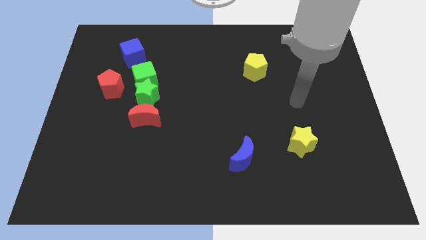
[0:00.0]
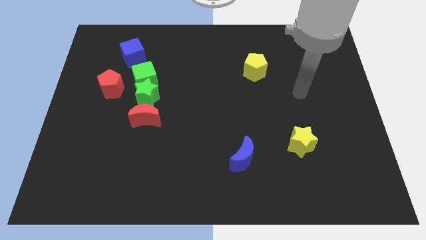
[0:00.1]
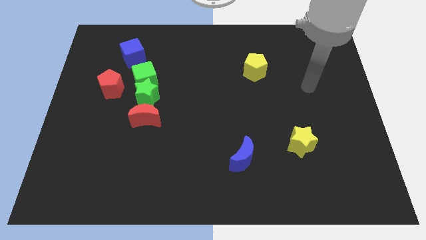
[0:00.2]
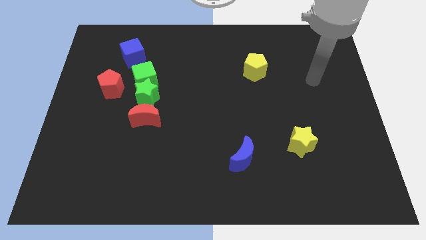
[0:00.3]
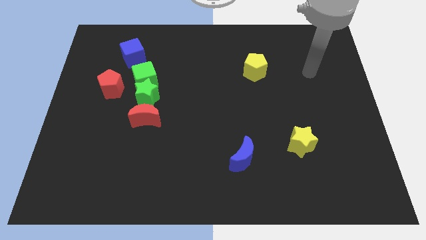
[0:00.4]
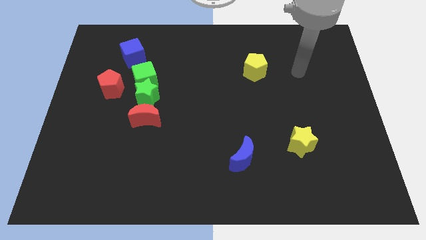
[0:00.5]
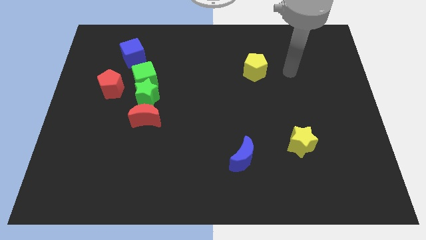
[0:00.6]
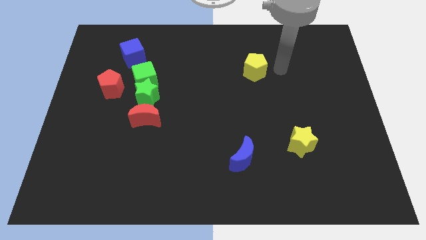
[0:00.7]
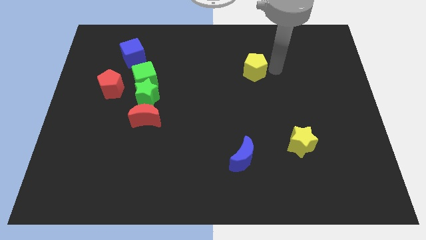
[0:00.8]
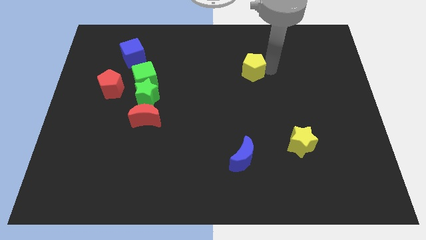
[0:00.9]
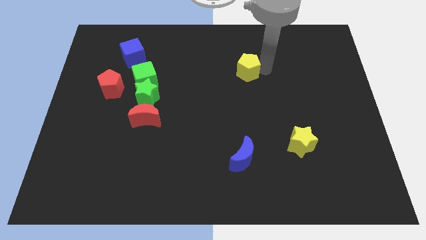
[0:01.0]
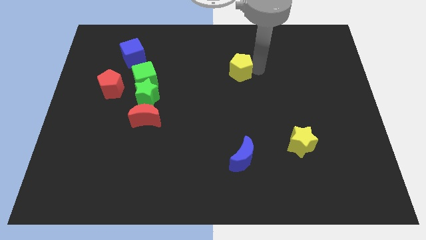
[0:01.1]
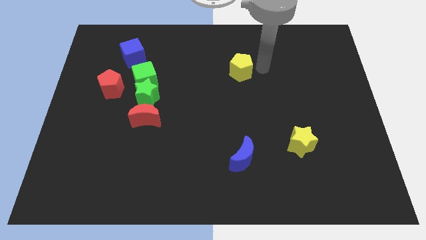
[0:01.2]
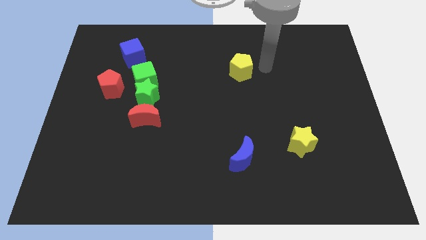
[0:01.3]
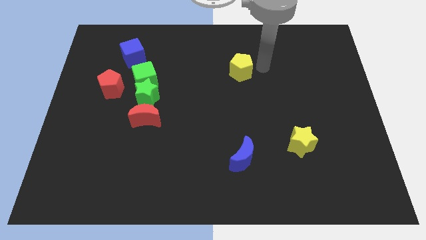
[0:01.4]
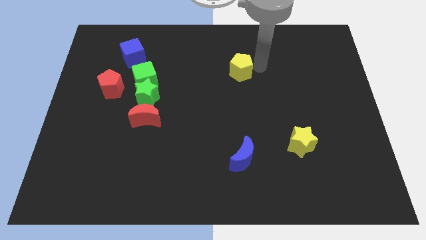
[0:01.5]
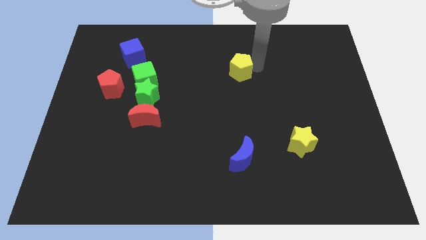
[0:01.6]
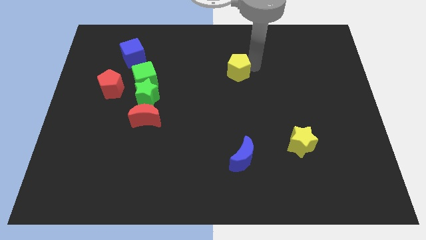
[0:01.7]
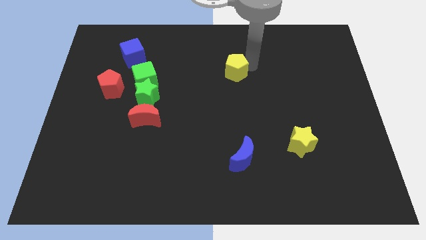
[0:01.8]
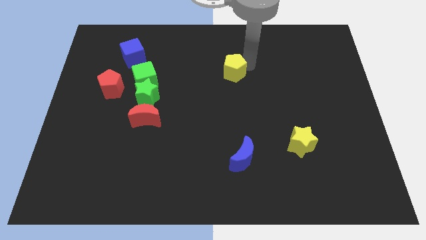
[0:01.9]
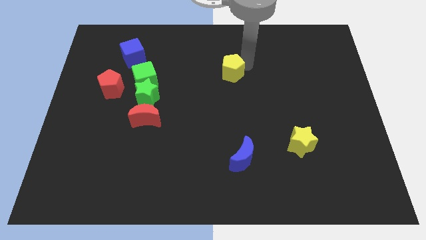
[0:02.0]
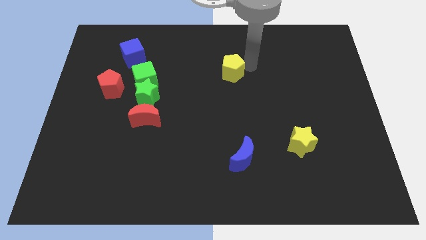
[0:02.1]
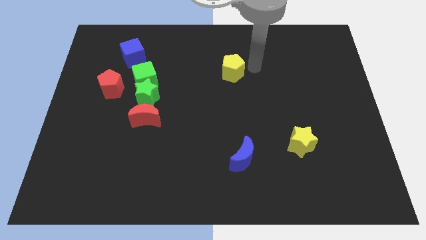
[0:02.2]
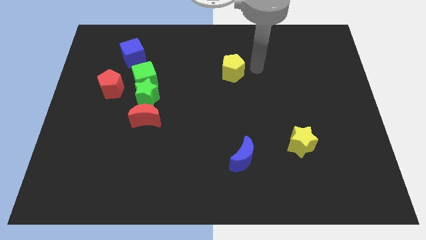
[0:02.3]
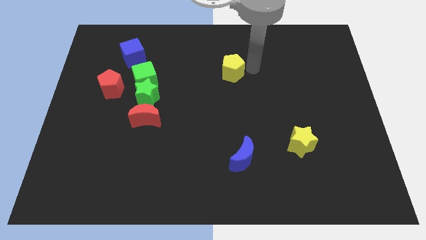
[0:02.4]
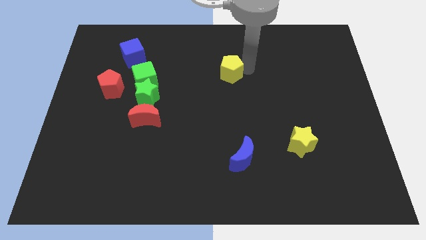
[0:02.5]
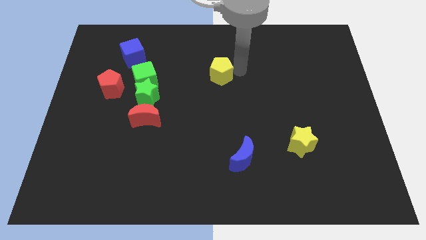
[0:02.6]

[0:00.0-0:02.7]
push the yellow pentagon left slightly

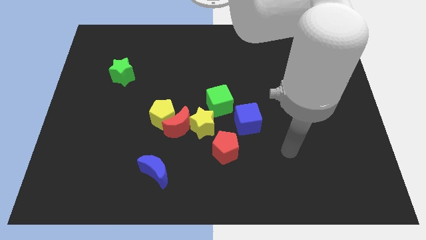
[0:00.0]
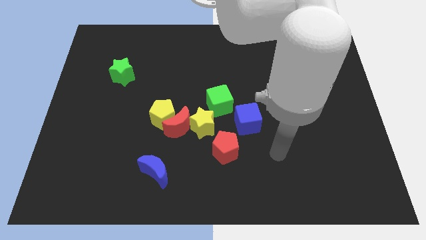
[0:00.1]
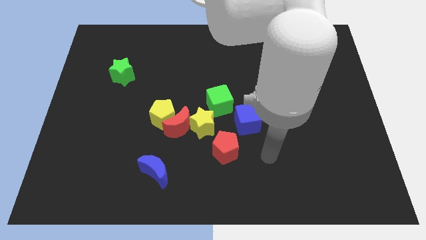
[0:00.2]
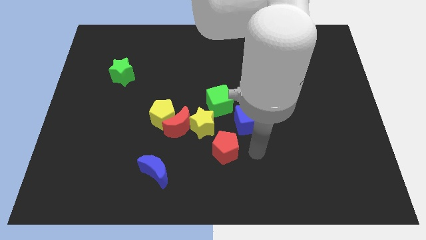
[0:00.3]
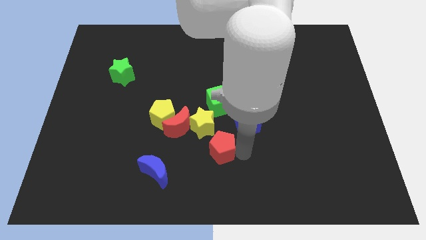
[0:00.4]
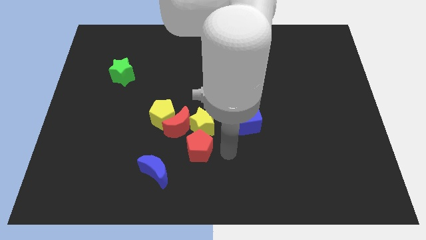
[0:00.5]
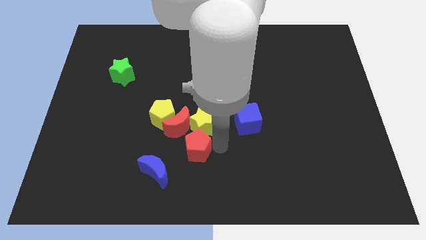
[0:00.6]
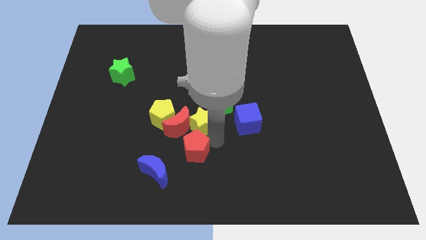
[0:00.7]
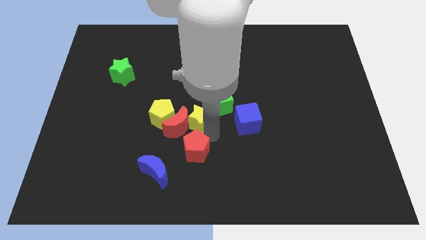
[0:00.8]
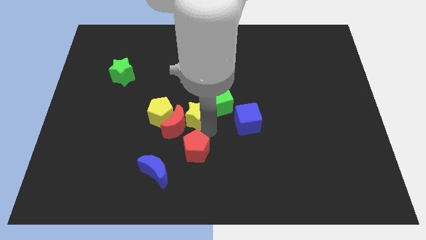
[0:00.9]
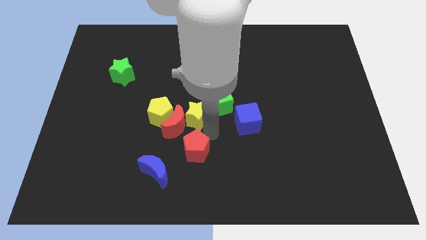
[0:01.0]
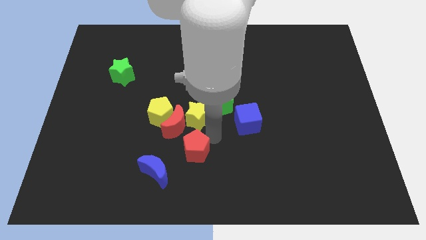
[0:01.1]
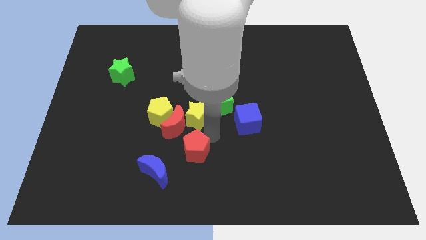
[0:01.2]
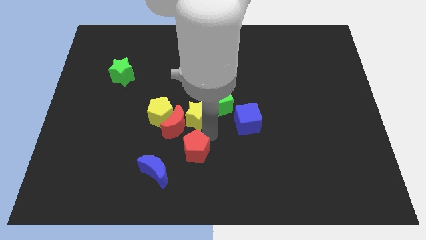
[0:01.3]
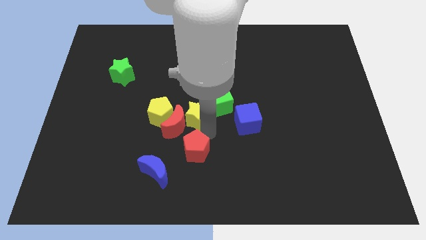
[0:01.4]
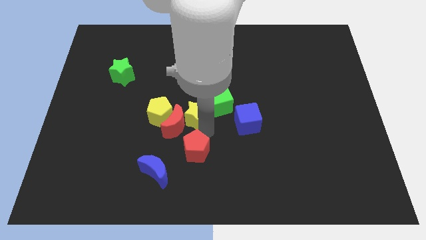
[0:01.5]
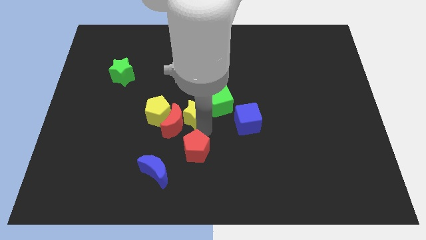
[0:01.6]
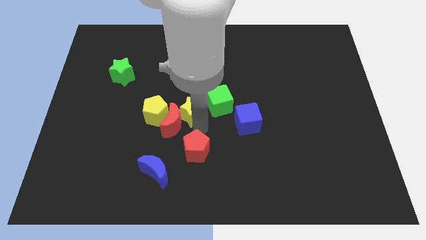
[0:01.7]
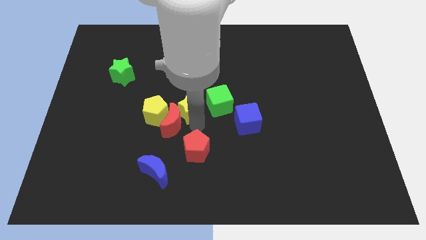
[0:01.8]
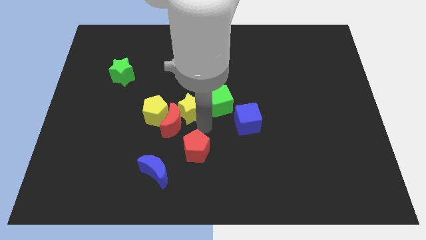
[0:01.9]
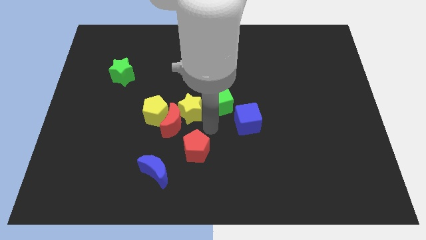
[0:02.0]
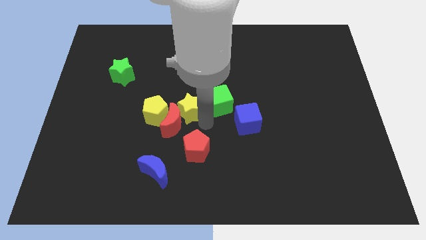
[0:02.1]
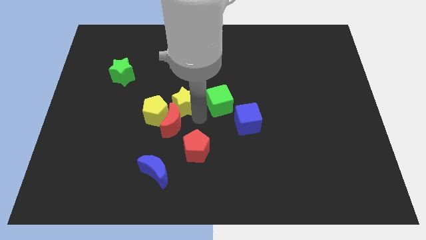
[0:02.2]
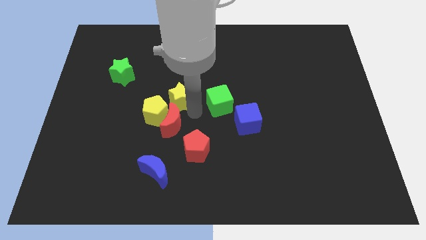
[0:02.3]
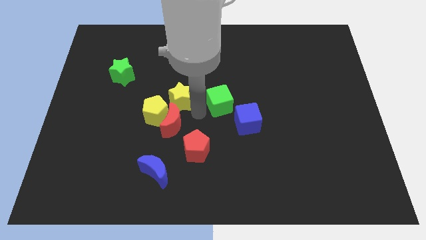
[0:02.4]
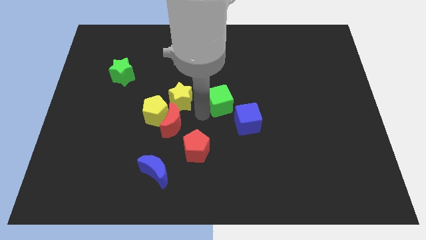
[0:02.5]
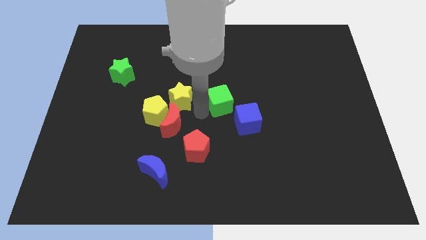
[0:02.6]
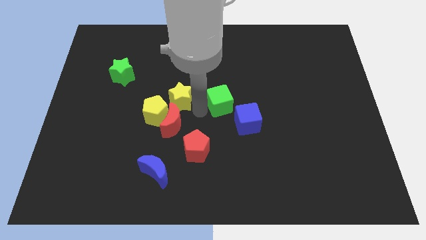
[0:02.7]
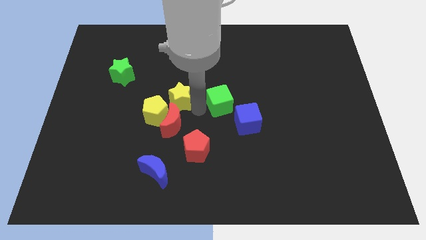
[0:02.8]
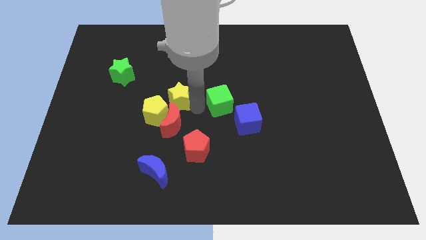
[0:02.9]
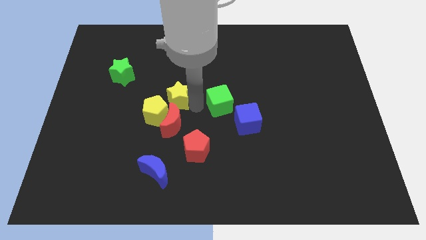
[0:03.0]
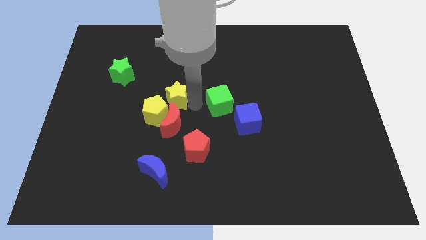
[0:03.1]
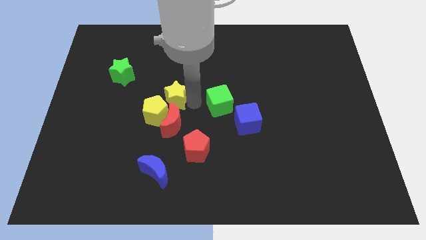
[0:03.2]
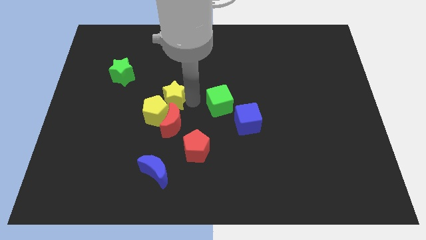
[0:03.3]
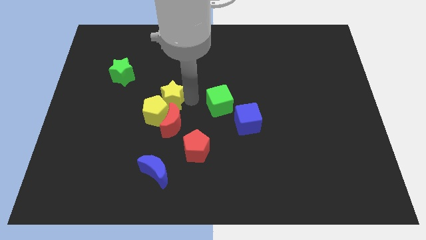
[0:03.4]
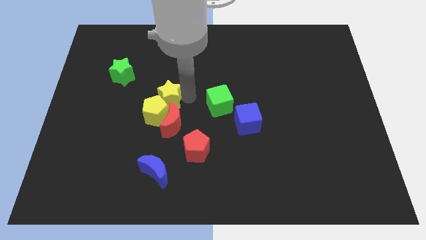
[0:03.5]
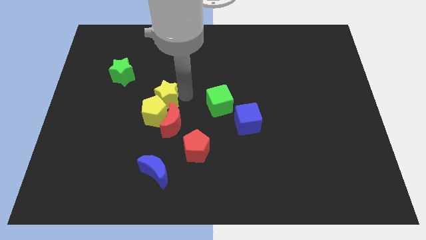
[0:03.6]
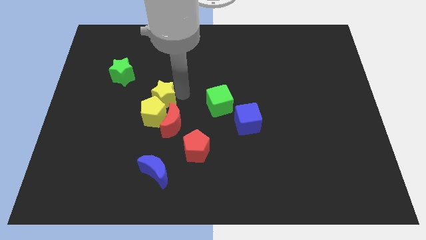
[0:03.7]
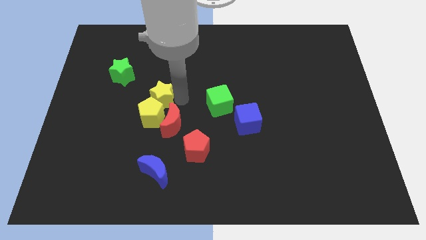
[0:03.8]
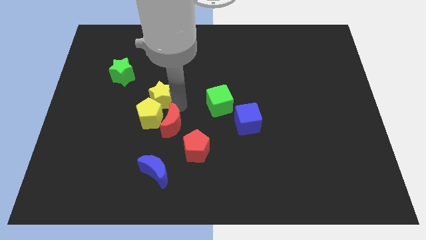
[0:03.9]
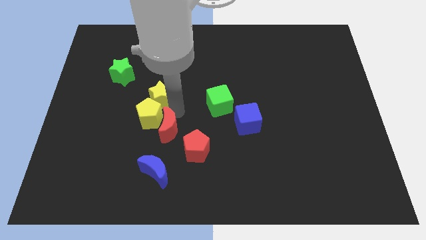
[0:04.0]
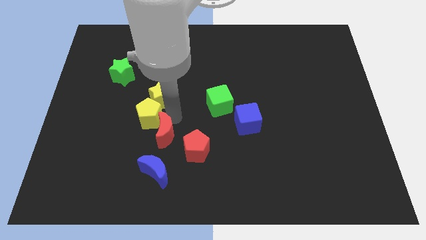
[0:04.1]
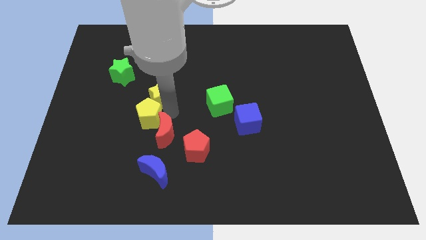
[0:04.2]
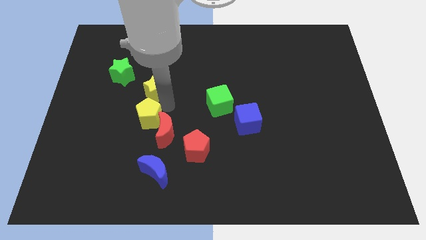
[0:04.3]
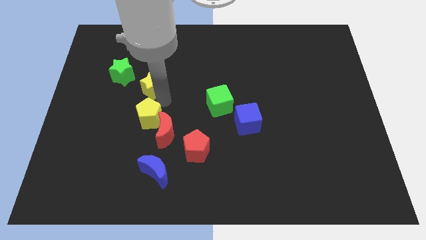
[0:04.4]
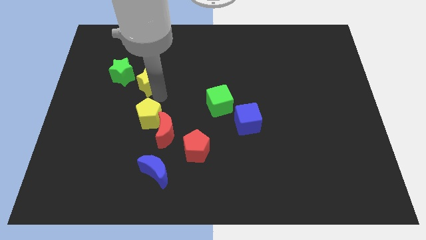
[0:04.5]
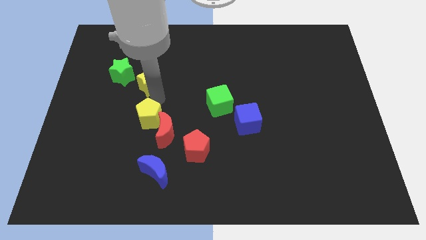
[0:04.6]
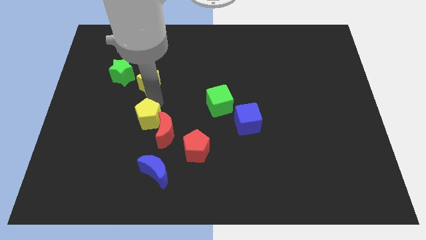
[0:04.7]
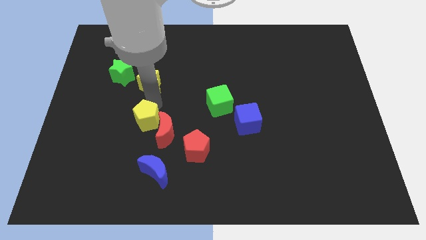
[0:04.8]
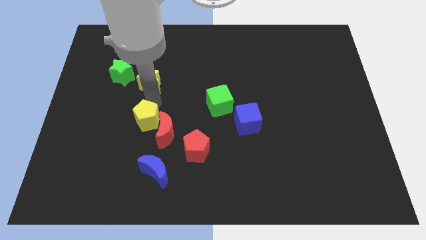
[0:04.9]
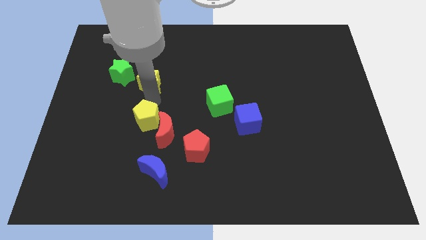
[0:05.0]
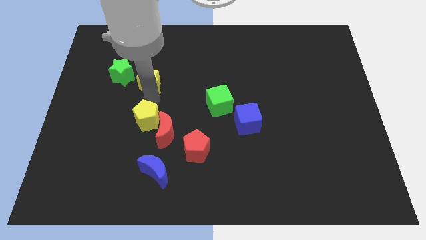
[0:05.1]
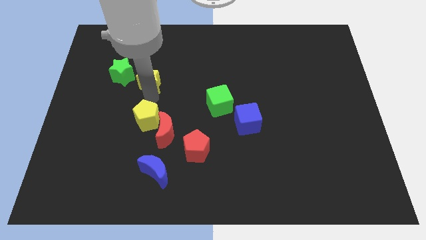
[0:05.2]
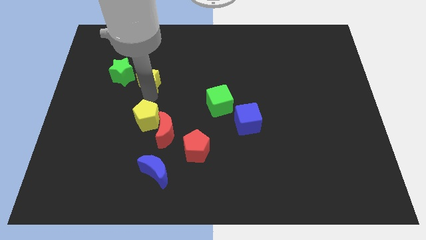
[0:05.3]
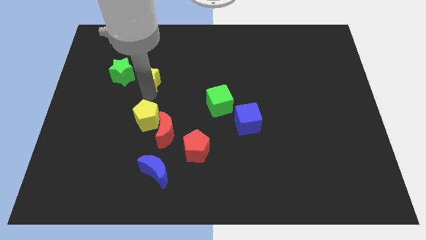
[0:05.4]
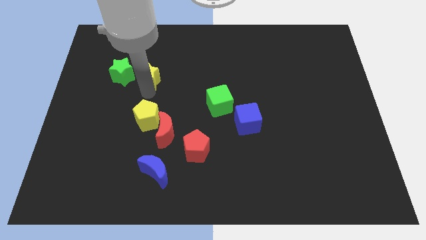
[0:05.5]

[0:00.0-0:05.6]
slide the yellow star upwards and to the left
